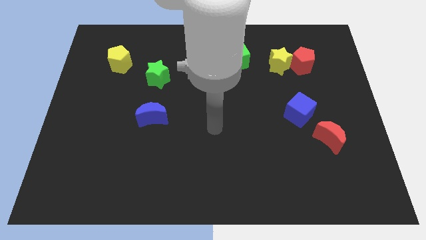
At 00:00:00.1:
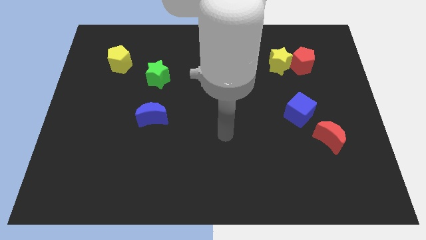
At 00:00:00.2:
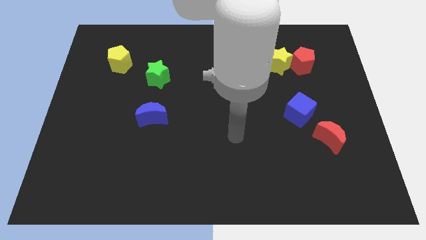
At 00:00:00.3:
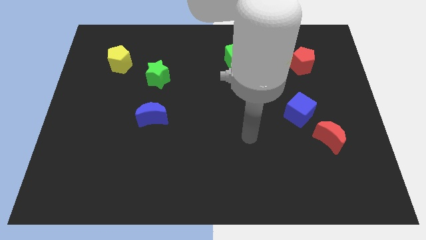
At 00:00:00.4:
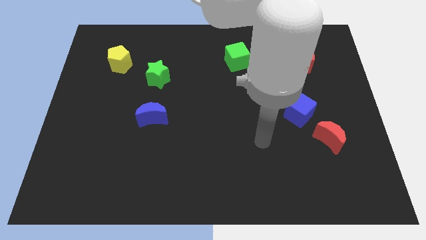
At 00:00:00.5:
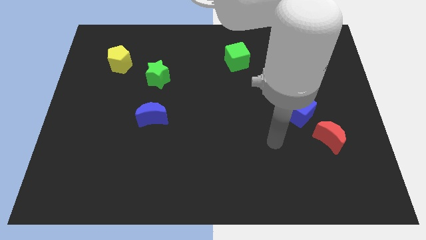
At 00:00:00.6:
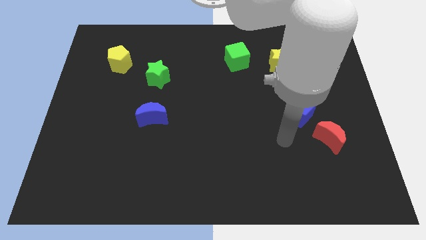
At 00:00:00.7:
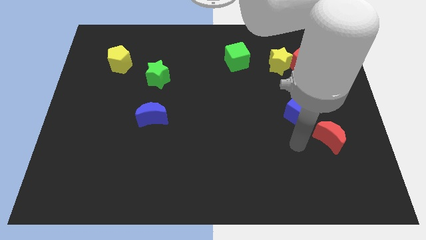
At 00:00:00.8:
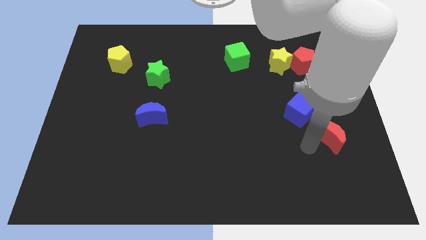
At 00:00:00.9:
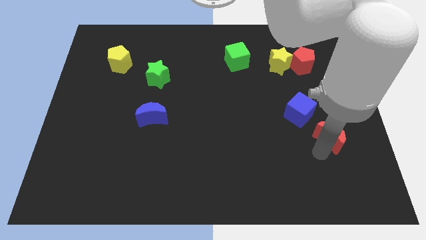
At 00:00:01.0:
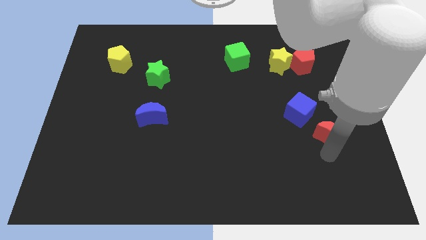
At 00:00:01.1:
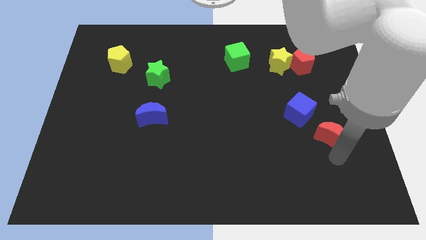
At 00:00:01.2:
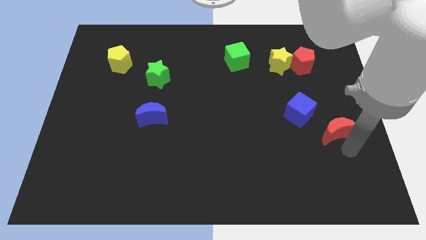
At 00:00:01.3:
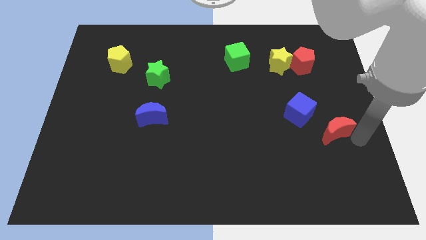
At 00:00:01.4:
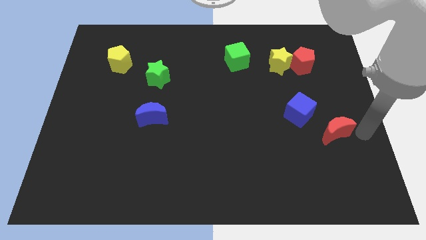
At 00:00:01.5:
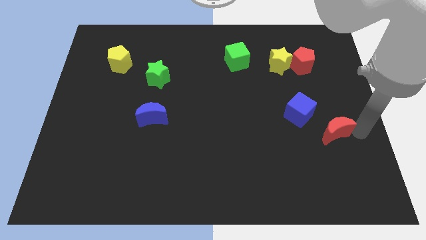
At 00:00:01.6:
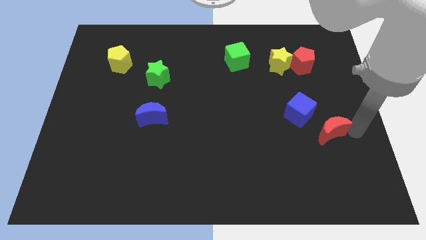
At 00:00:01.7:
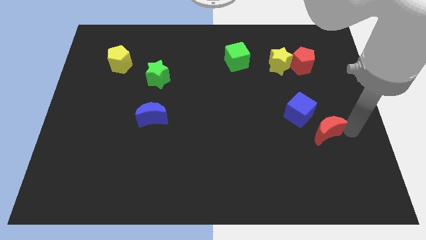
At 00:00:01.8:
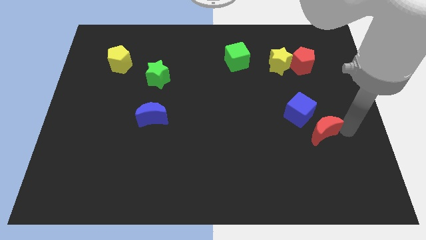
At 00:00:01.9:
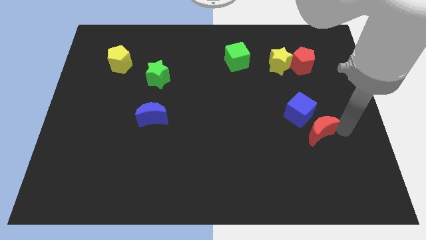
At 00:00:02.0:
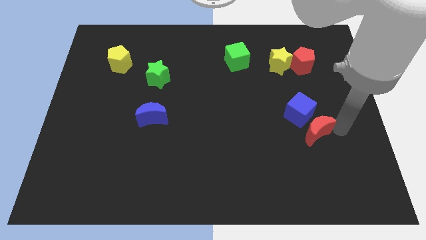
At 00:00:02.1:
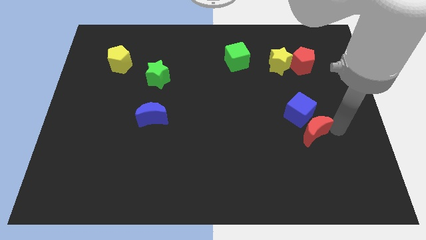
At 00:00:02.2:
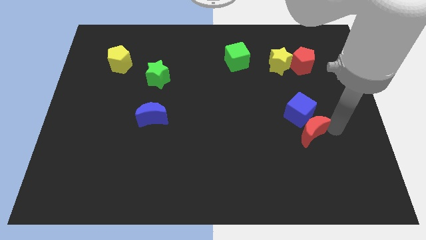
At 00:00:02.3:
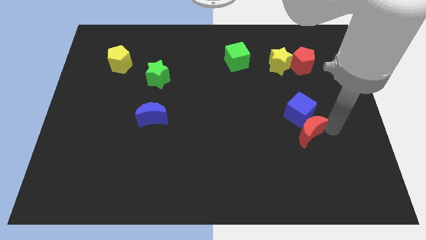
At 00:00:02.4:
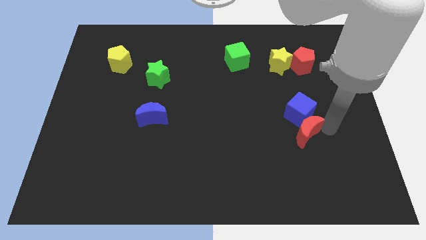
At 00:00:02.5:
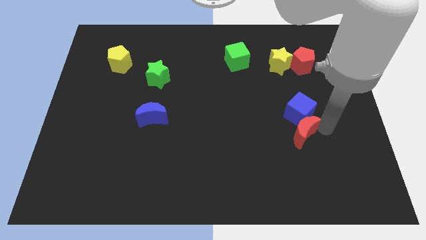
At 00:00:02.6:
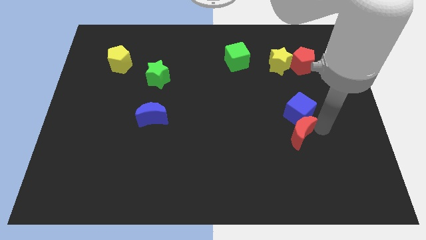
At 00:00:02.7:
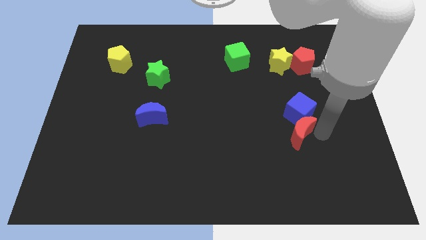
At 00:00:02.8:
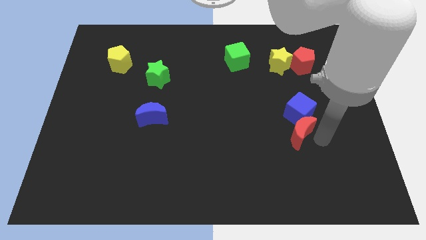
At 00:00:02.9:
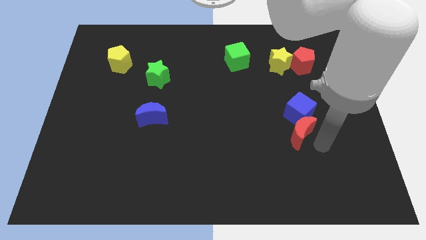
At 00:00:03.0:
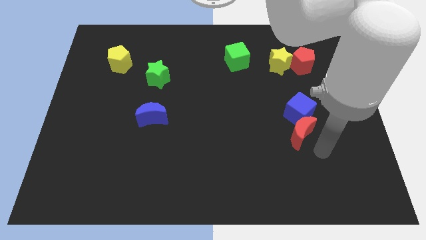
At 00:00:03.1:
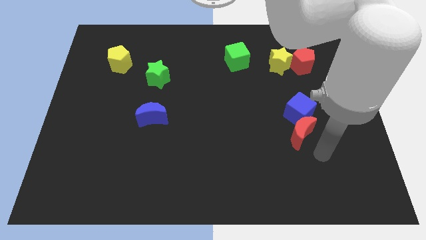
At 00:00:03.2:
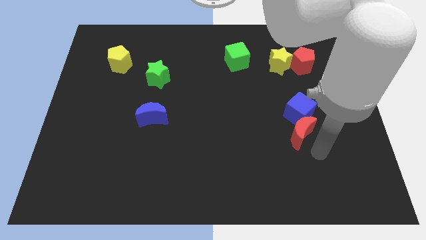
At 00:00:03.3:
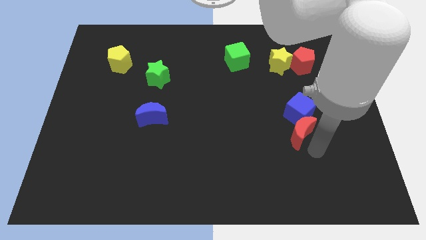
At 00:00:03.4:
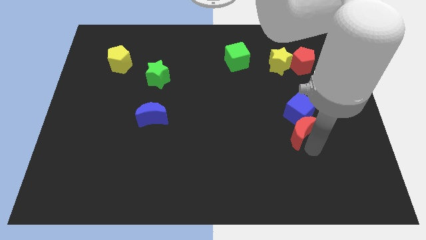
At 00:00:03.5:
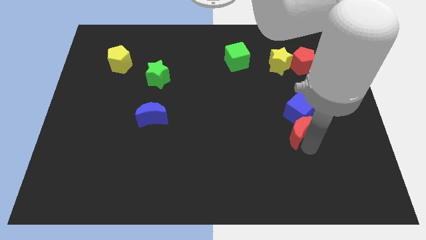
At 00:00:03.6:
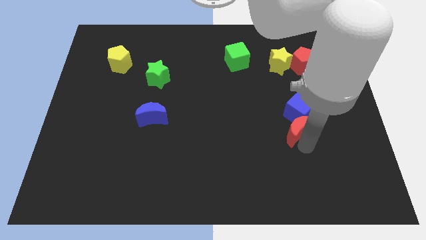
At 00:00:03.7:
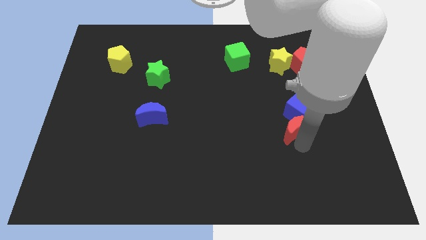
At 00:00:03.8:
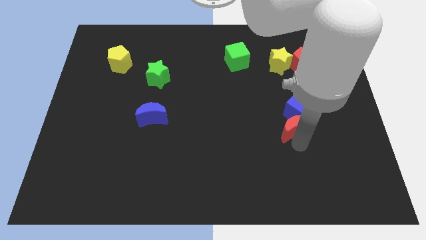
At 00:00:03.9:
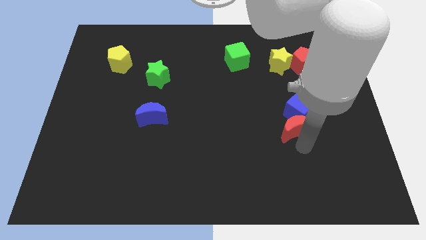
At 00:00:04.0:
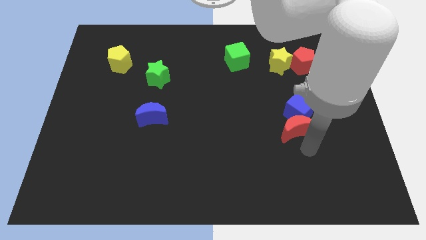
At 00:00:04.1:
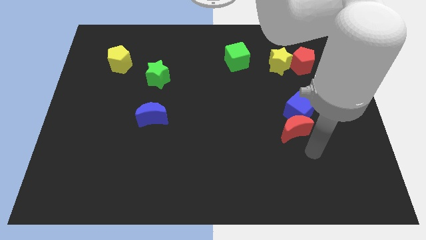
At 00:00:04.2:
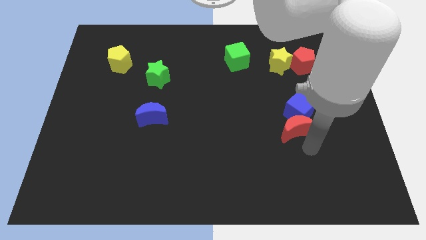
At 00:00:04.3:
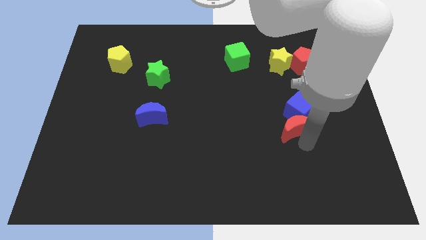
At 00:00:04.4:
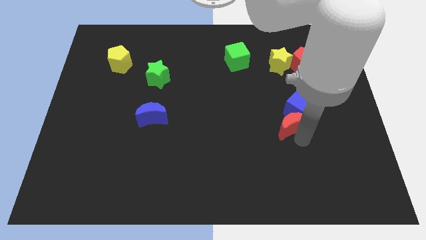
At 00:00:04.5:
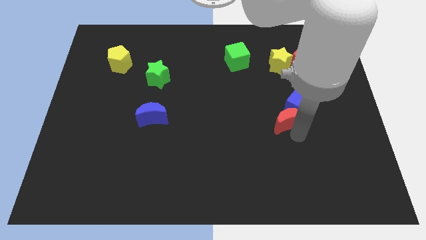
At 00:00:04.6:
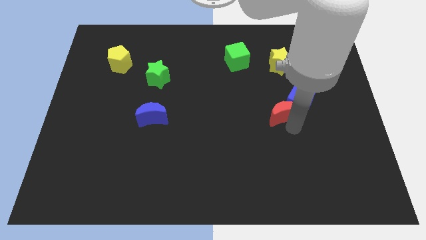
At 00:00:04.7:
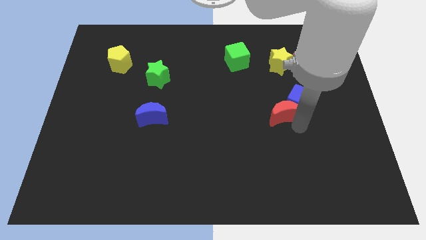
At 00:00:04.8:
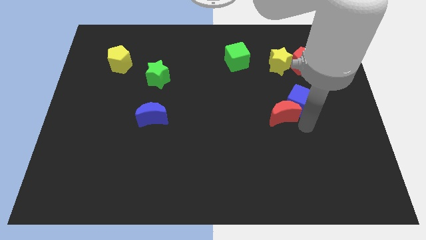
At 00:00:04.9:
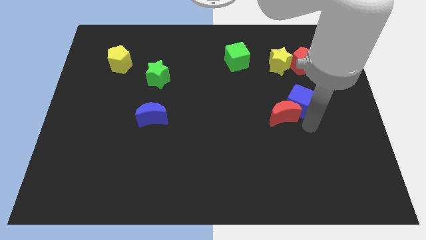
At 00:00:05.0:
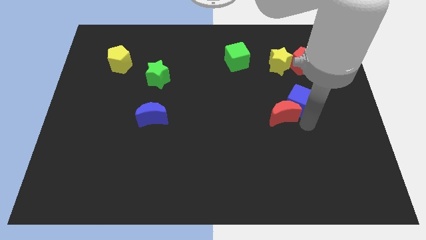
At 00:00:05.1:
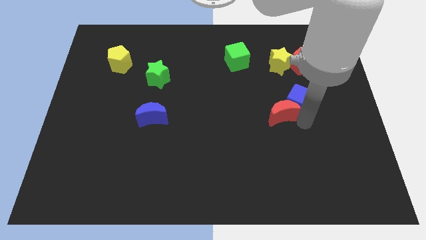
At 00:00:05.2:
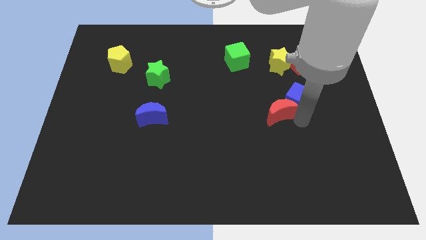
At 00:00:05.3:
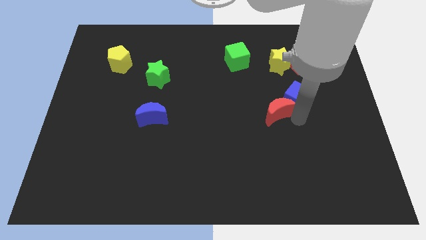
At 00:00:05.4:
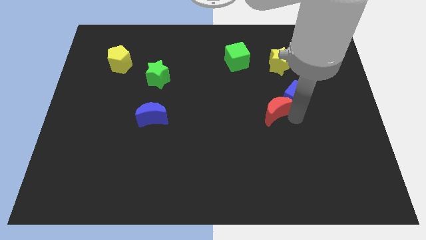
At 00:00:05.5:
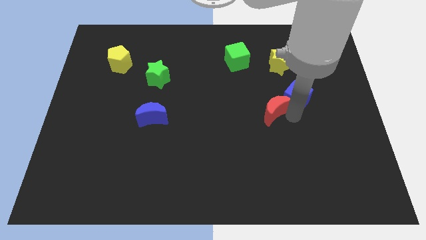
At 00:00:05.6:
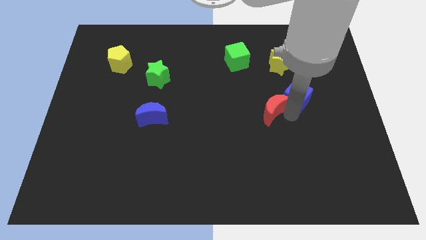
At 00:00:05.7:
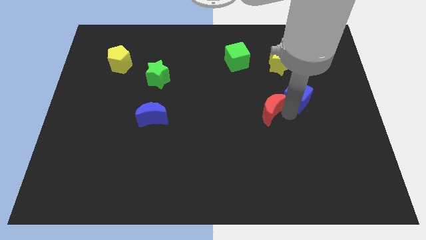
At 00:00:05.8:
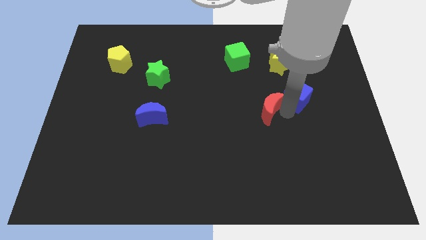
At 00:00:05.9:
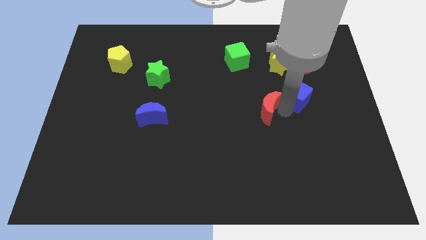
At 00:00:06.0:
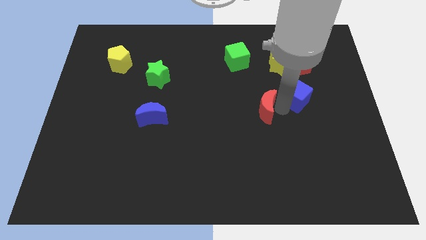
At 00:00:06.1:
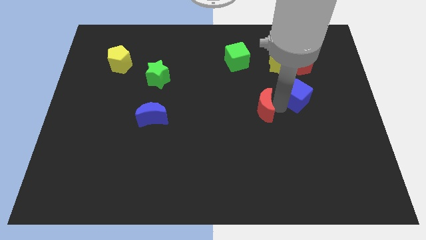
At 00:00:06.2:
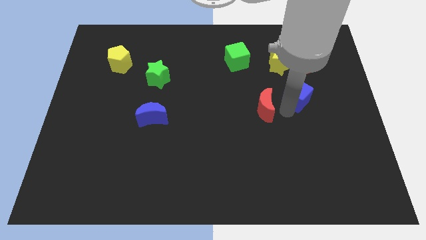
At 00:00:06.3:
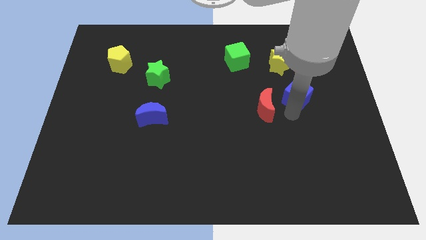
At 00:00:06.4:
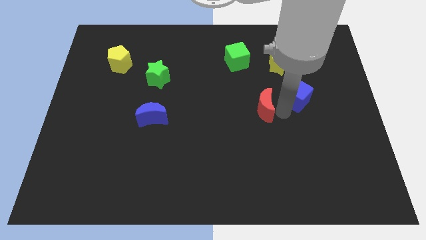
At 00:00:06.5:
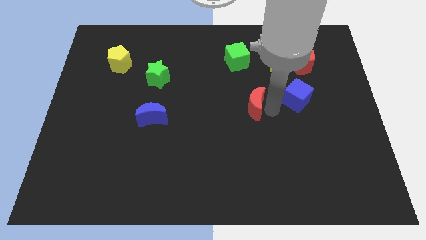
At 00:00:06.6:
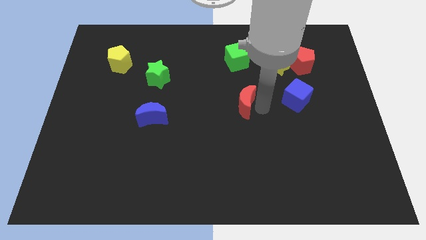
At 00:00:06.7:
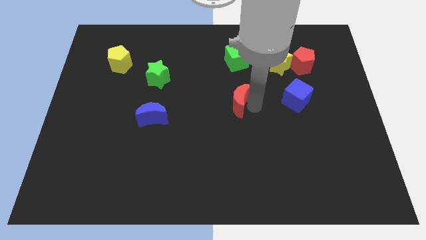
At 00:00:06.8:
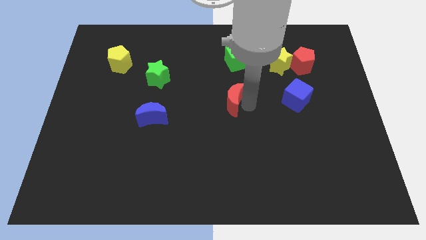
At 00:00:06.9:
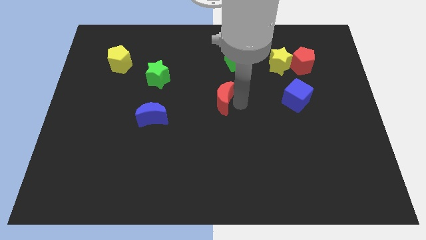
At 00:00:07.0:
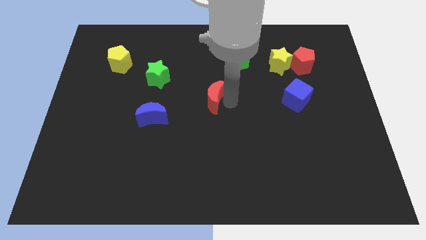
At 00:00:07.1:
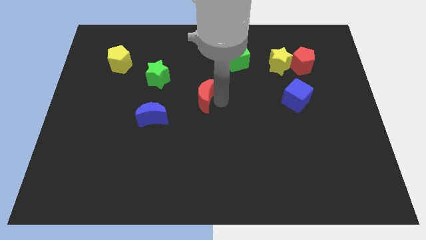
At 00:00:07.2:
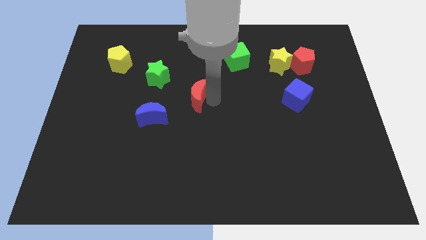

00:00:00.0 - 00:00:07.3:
move the red moon to the bottom right side of the green star

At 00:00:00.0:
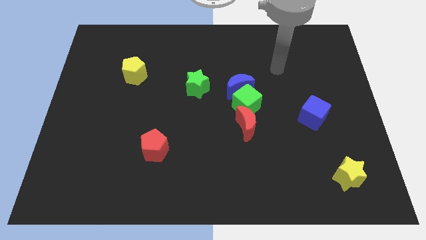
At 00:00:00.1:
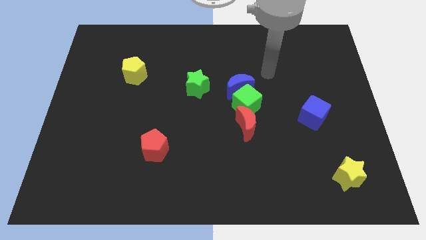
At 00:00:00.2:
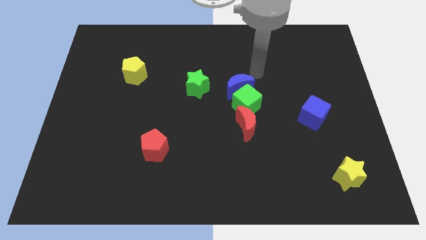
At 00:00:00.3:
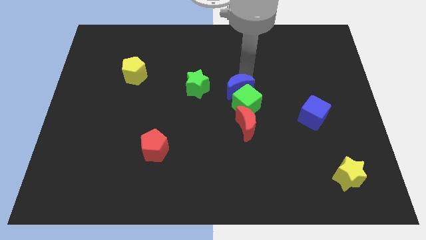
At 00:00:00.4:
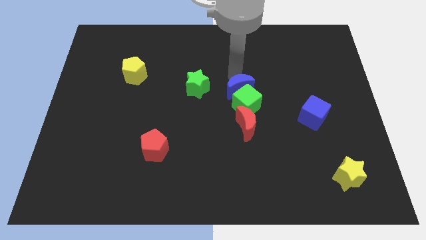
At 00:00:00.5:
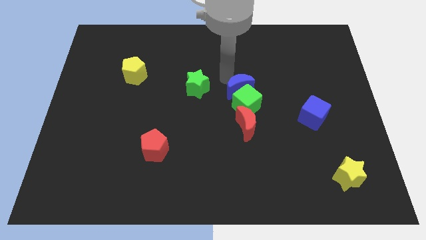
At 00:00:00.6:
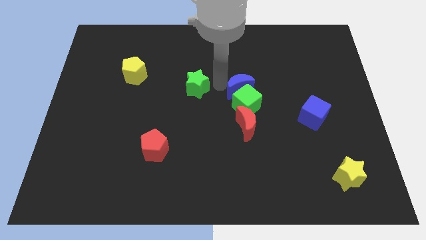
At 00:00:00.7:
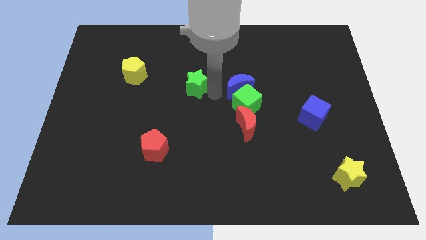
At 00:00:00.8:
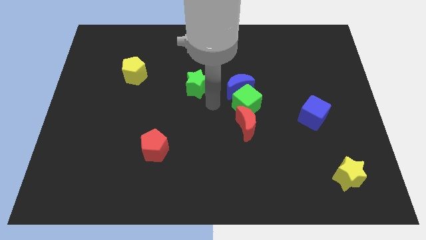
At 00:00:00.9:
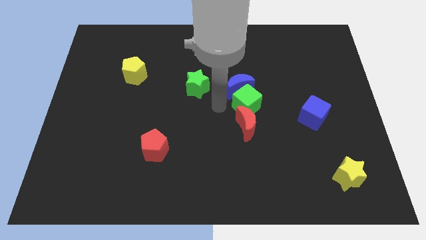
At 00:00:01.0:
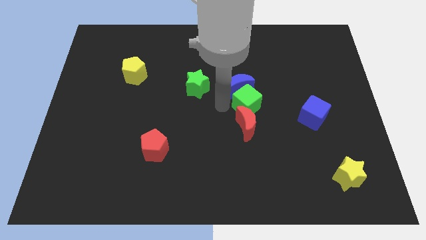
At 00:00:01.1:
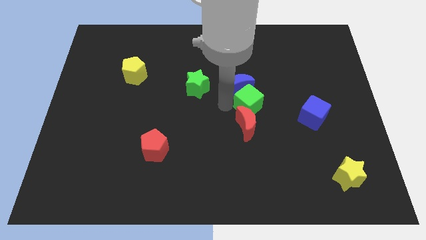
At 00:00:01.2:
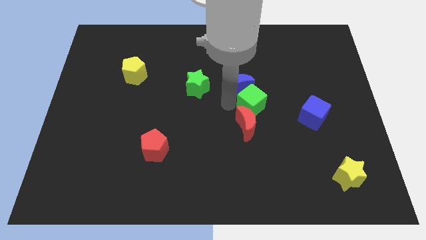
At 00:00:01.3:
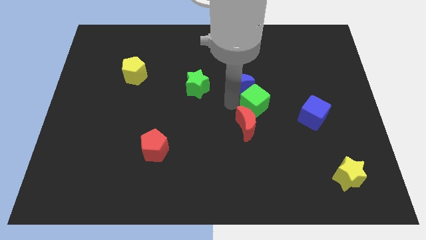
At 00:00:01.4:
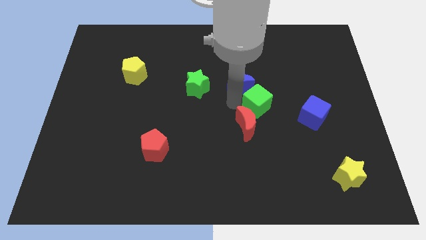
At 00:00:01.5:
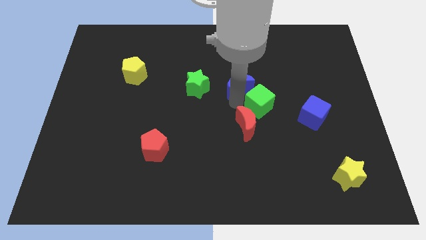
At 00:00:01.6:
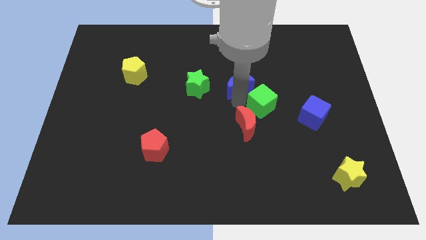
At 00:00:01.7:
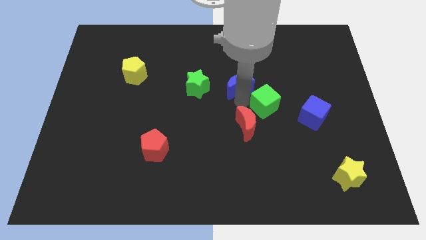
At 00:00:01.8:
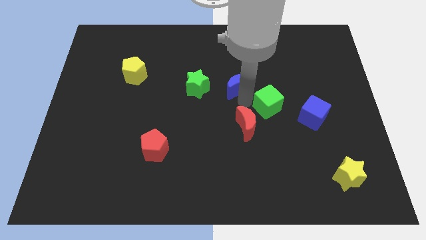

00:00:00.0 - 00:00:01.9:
move the green cube to the top left side of the blue cube
